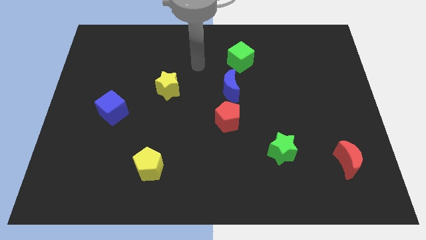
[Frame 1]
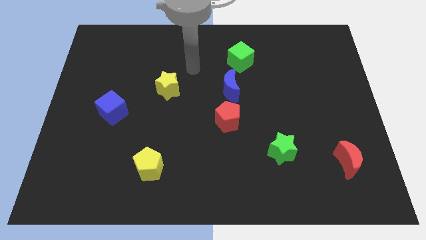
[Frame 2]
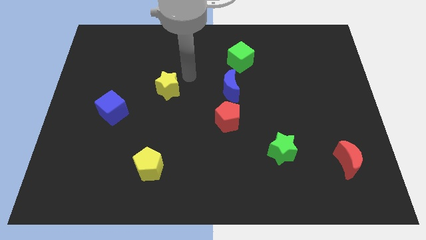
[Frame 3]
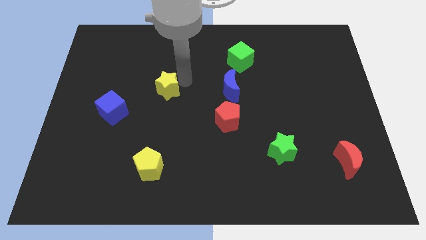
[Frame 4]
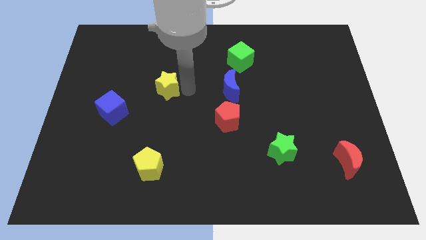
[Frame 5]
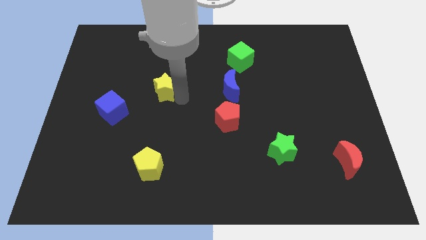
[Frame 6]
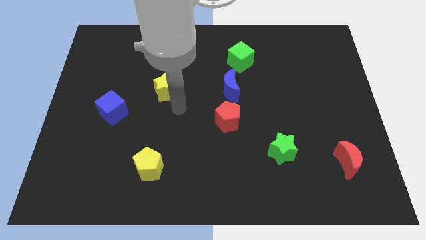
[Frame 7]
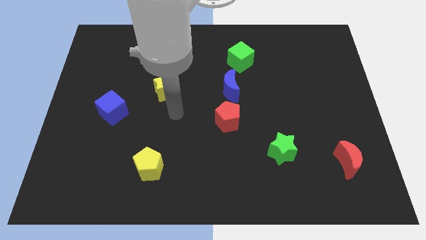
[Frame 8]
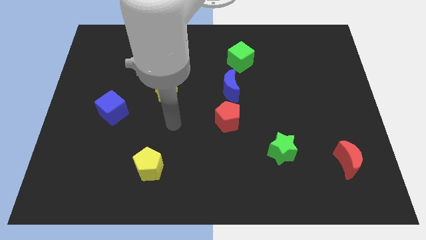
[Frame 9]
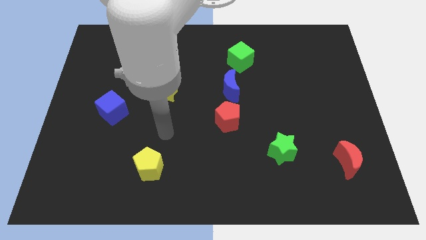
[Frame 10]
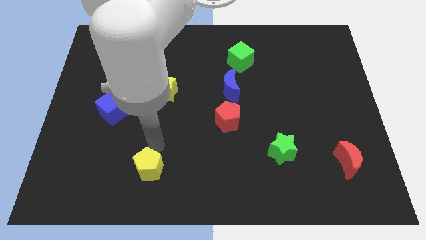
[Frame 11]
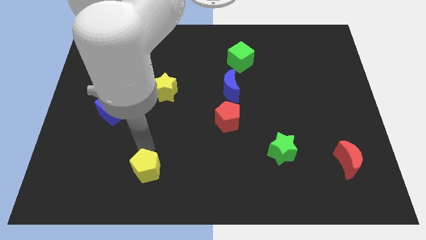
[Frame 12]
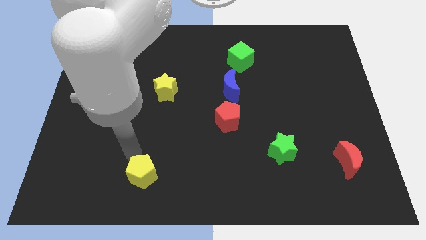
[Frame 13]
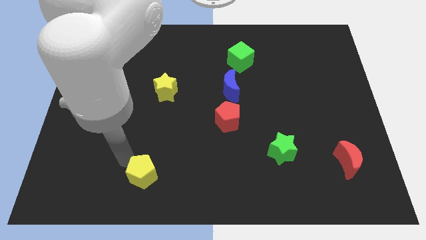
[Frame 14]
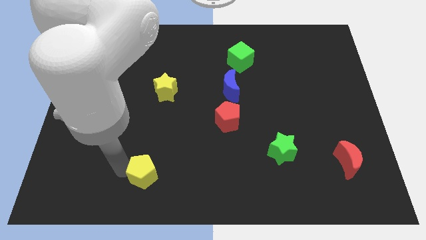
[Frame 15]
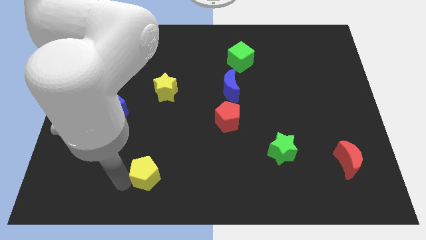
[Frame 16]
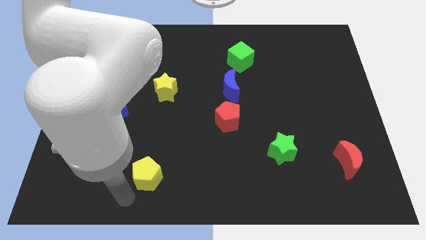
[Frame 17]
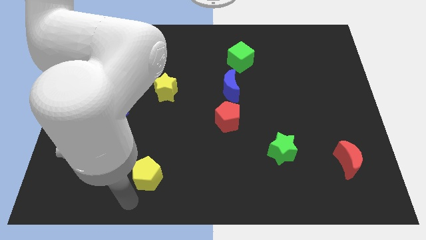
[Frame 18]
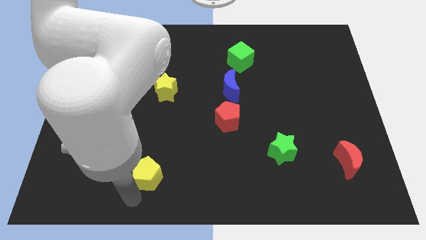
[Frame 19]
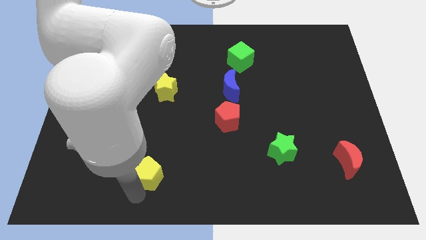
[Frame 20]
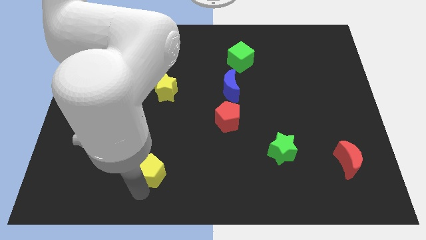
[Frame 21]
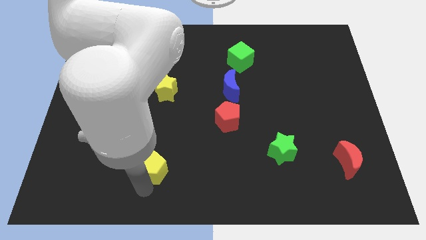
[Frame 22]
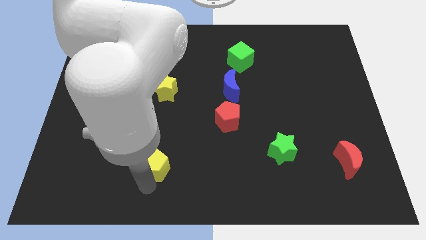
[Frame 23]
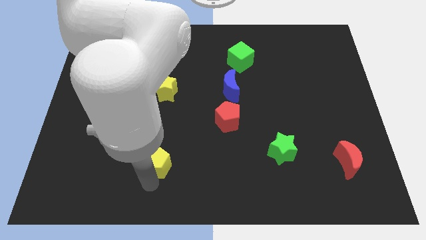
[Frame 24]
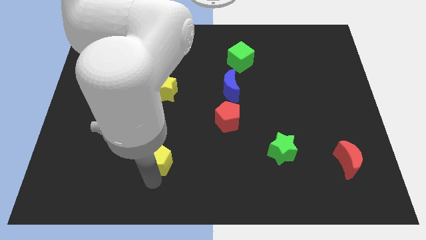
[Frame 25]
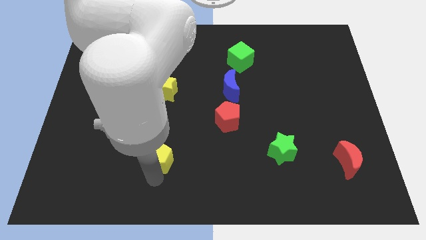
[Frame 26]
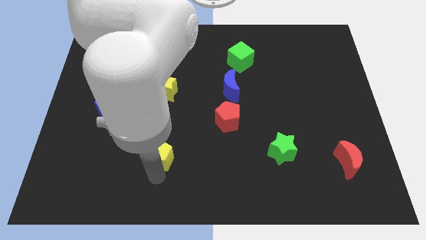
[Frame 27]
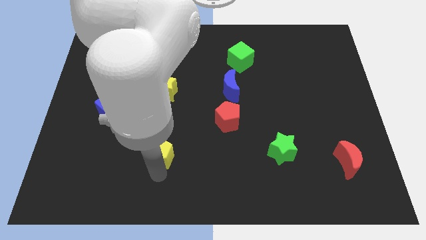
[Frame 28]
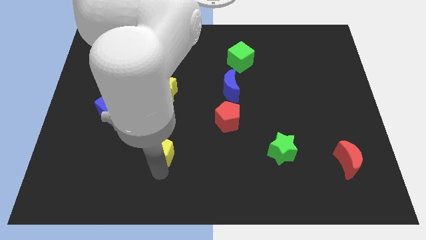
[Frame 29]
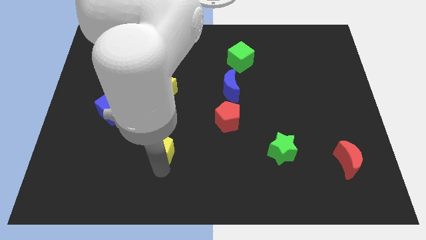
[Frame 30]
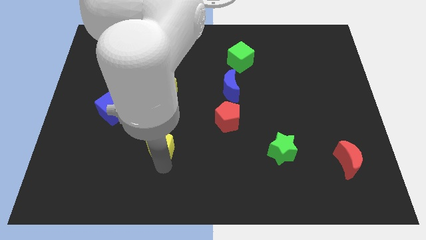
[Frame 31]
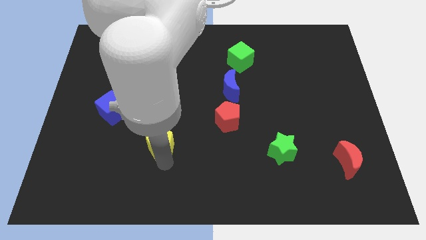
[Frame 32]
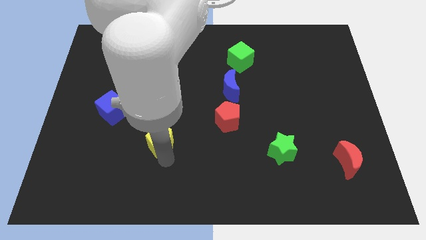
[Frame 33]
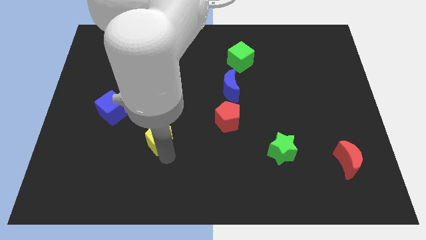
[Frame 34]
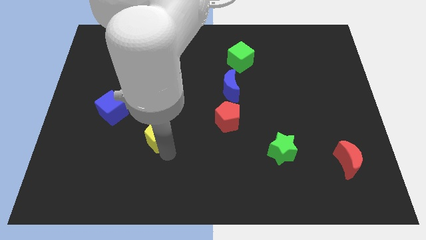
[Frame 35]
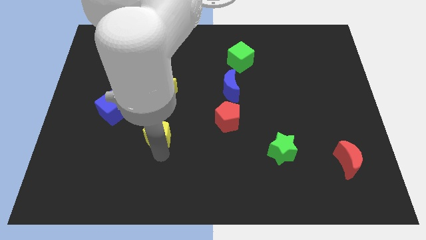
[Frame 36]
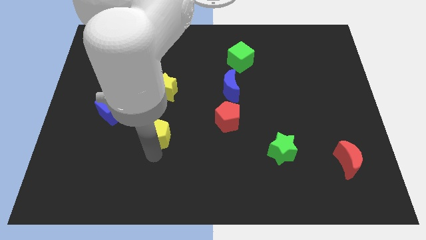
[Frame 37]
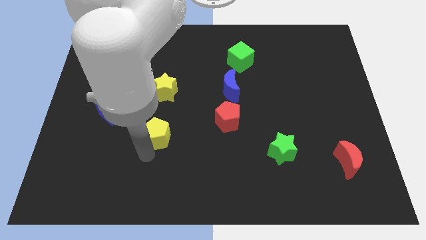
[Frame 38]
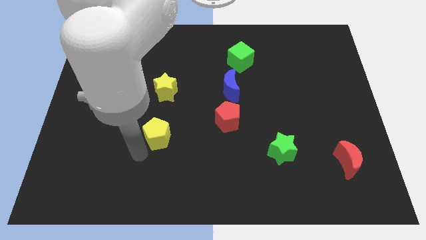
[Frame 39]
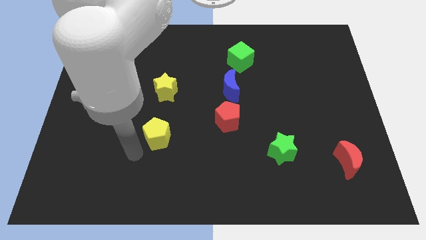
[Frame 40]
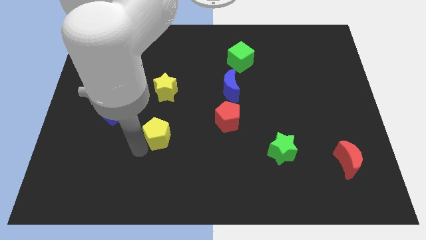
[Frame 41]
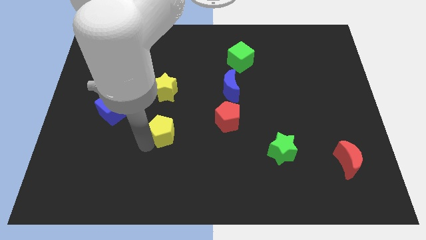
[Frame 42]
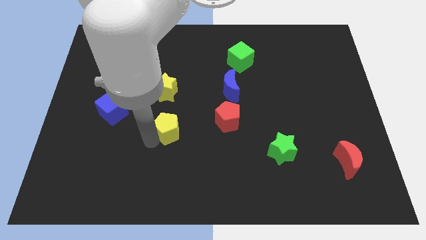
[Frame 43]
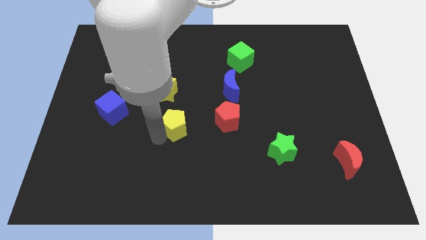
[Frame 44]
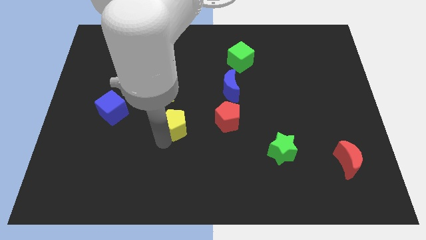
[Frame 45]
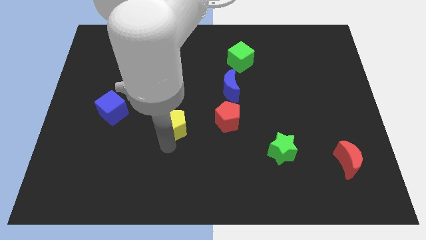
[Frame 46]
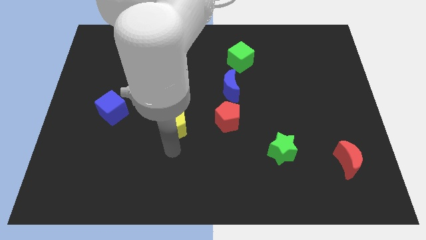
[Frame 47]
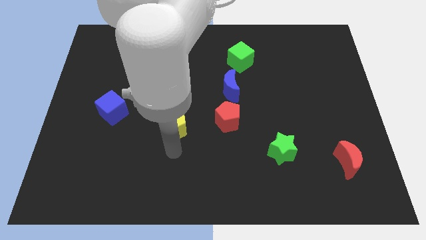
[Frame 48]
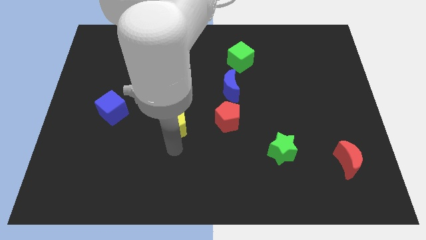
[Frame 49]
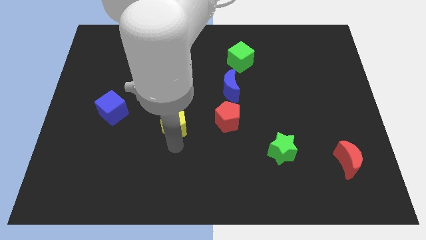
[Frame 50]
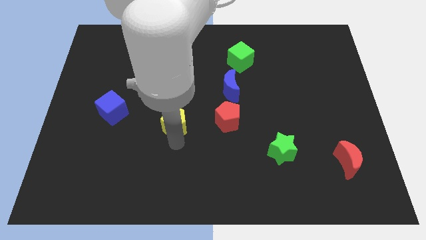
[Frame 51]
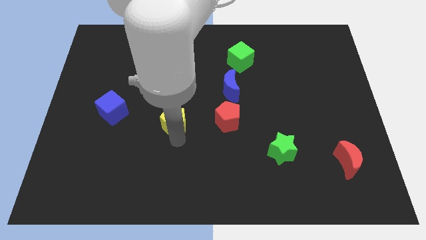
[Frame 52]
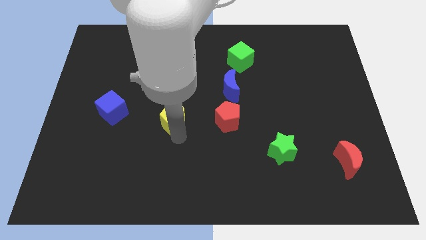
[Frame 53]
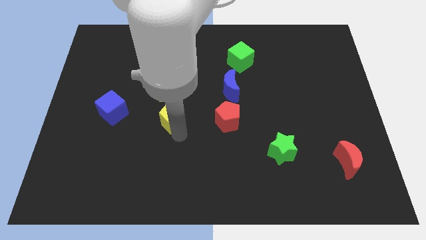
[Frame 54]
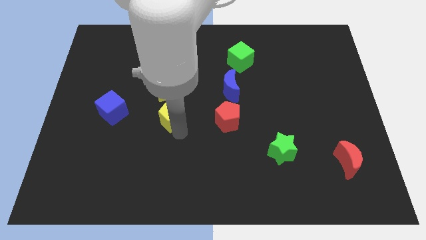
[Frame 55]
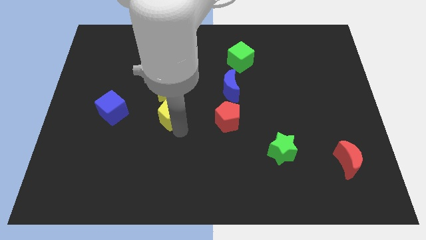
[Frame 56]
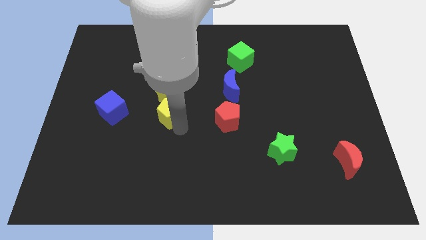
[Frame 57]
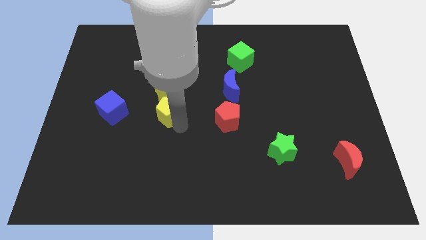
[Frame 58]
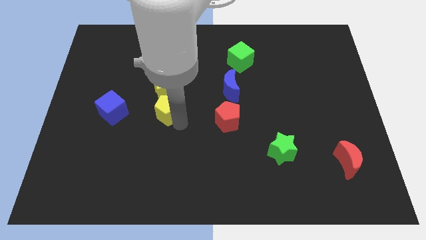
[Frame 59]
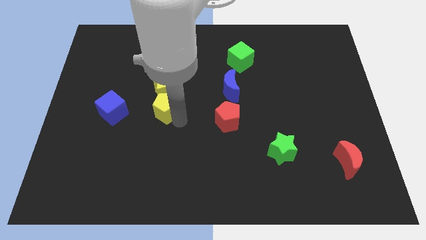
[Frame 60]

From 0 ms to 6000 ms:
slide the yellow pentagon next to the yellow star
